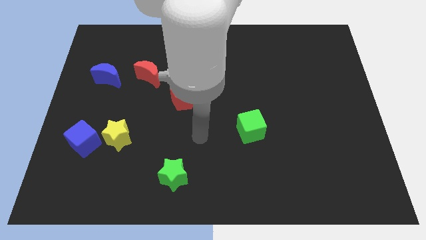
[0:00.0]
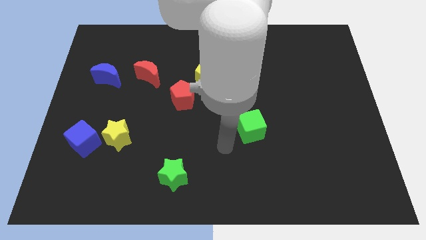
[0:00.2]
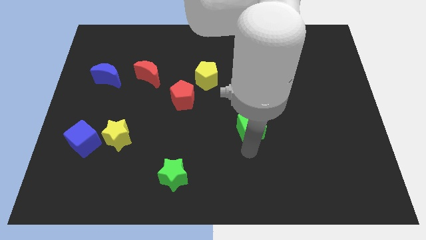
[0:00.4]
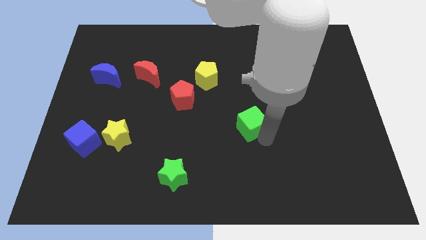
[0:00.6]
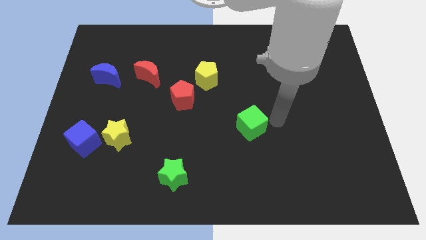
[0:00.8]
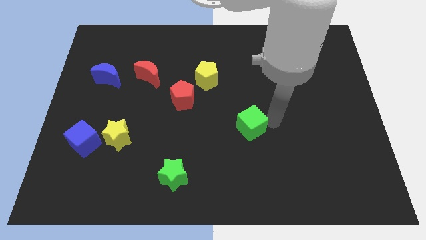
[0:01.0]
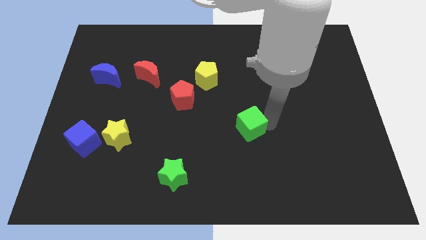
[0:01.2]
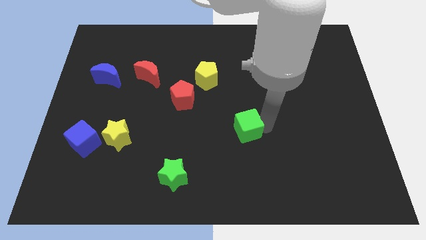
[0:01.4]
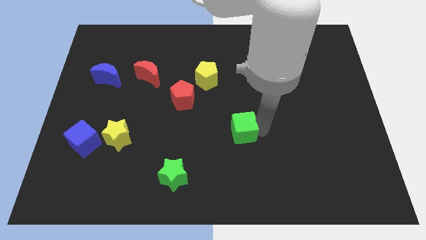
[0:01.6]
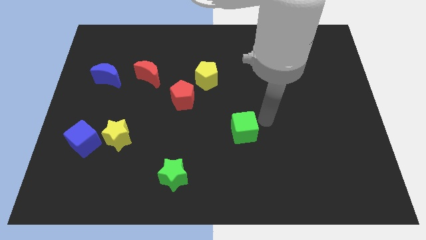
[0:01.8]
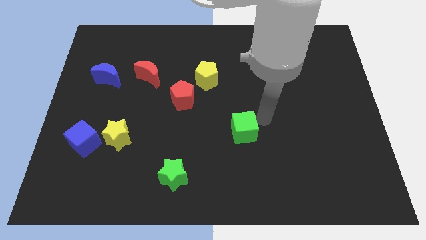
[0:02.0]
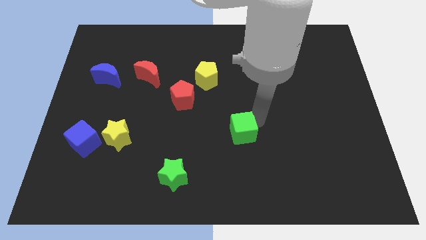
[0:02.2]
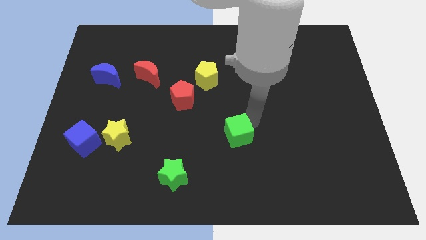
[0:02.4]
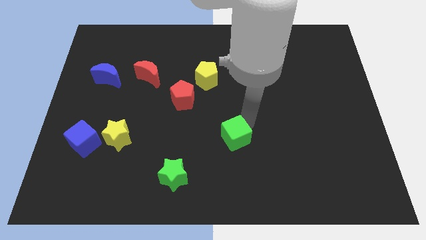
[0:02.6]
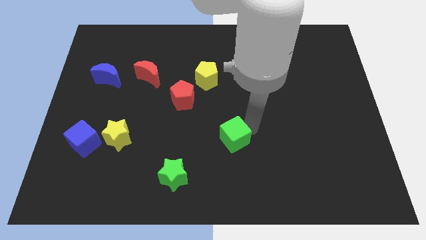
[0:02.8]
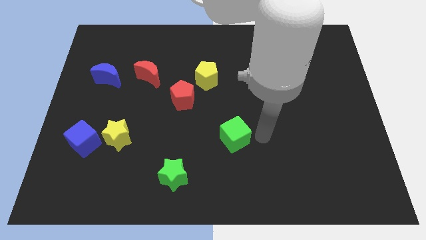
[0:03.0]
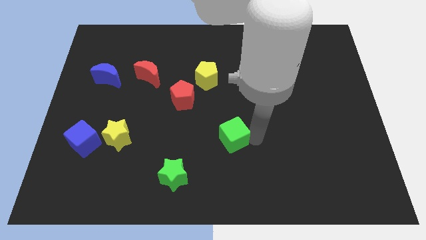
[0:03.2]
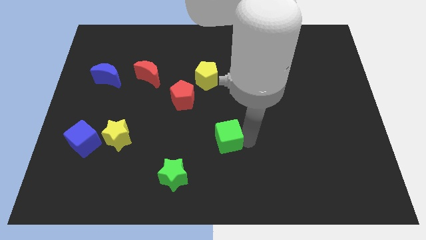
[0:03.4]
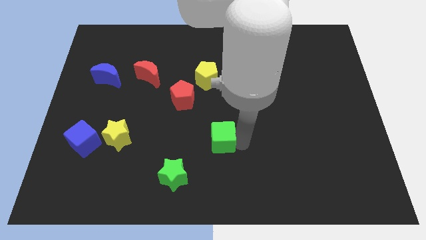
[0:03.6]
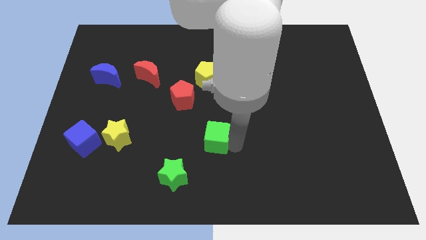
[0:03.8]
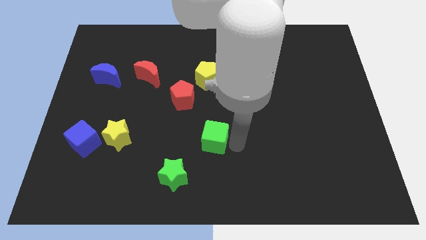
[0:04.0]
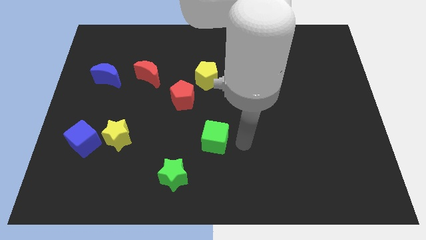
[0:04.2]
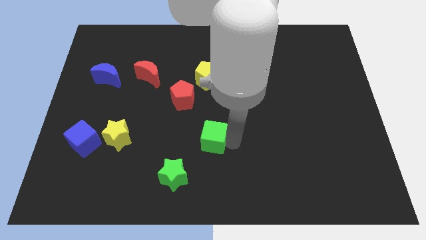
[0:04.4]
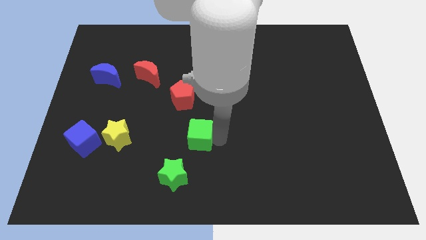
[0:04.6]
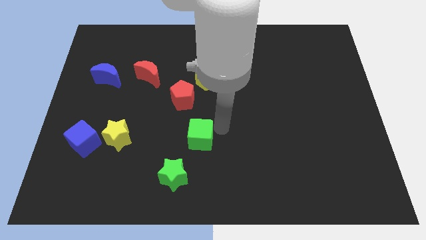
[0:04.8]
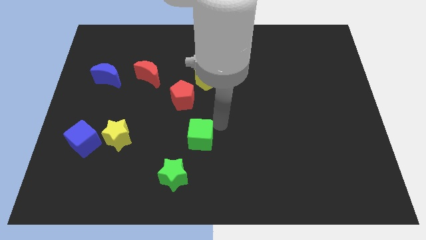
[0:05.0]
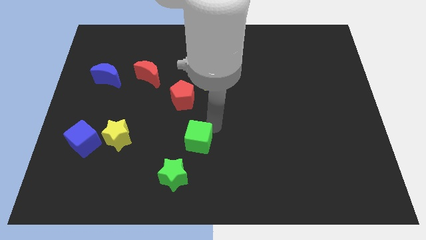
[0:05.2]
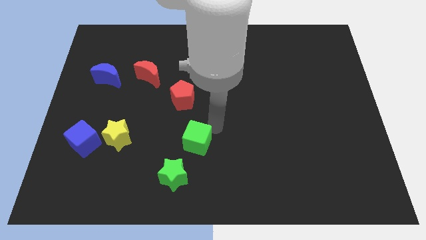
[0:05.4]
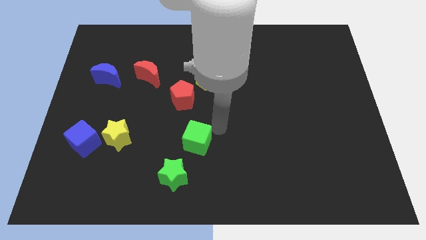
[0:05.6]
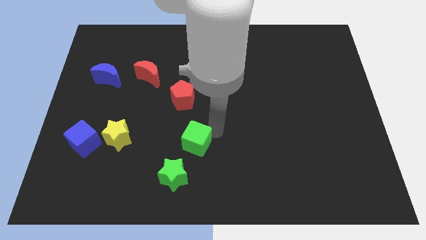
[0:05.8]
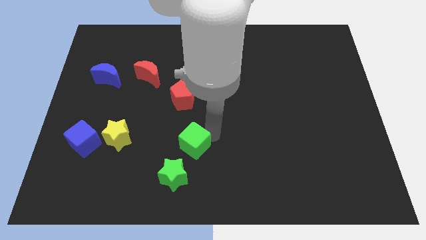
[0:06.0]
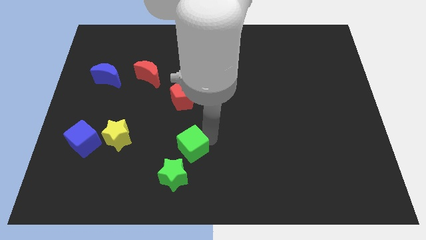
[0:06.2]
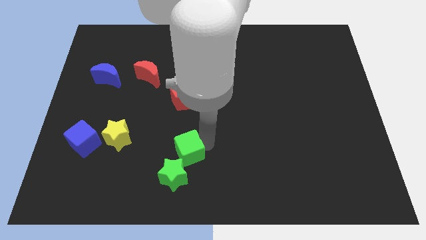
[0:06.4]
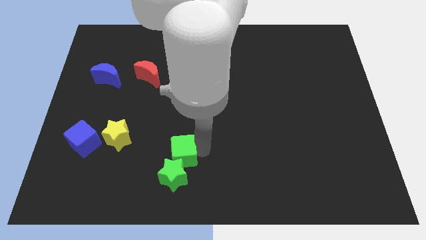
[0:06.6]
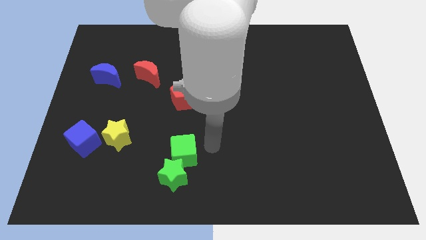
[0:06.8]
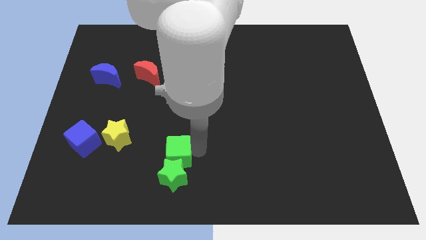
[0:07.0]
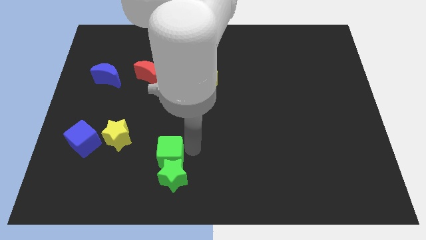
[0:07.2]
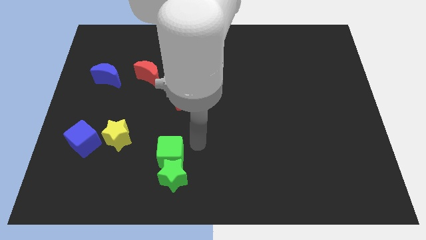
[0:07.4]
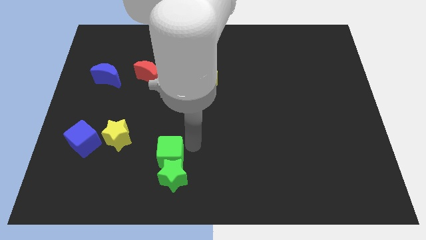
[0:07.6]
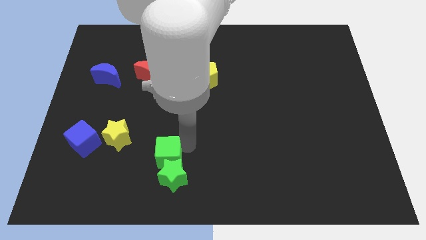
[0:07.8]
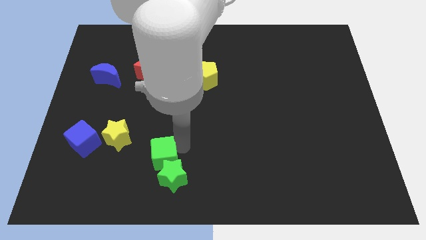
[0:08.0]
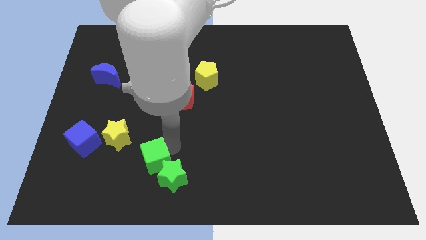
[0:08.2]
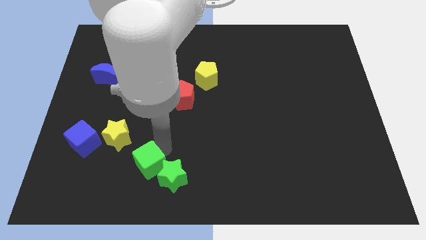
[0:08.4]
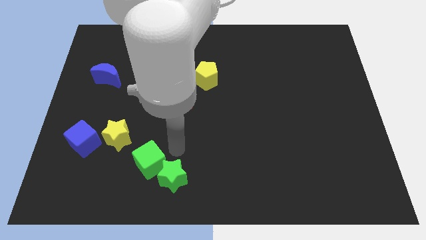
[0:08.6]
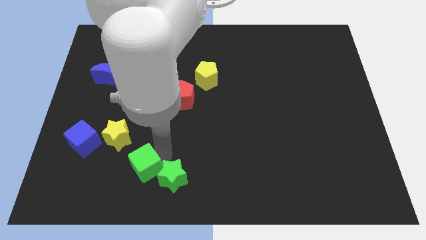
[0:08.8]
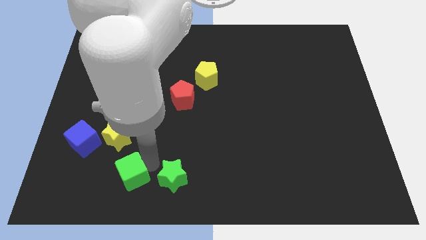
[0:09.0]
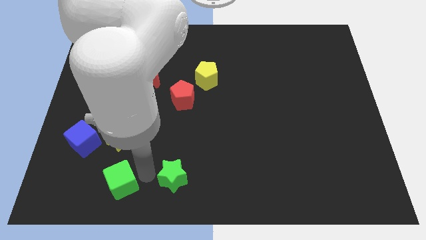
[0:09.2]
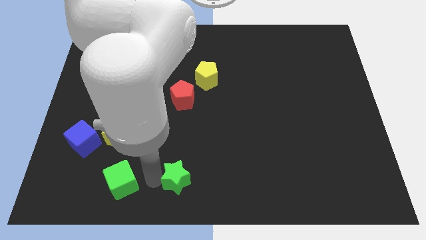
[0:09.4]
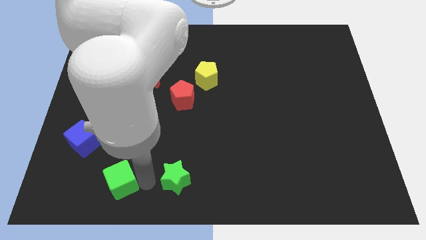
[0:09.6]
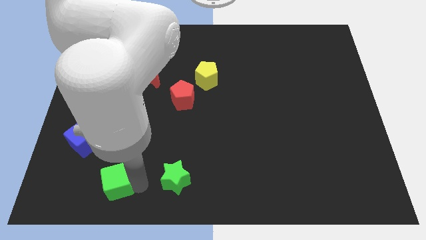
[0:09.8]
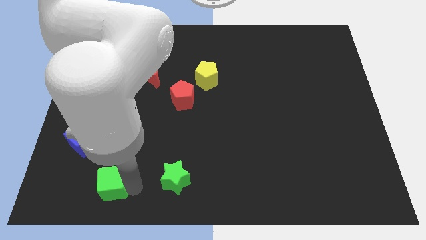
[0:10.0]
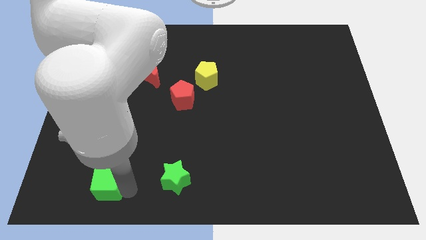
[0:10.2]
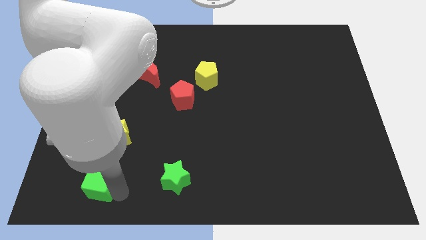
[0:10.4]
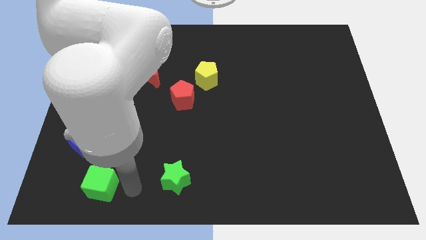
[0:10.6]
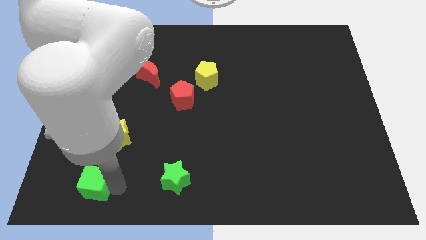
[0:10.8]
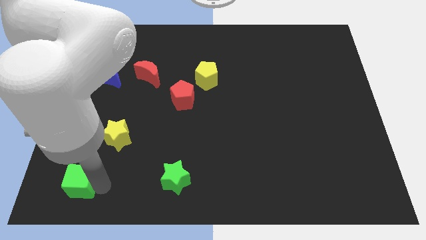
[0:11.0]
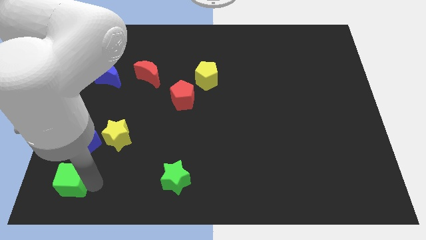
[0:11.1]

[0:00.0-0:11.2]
slide the green cube to the lower left corner

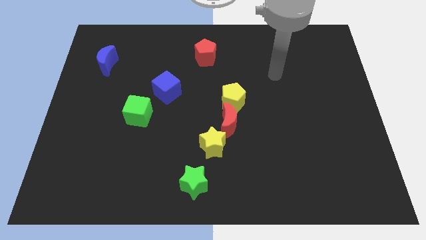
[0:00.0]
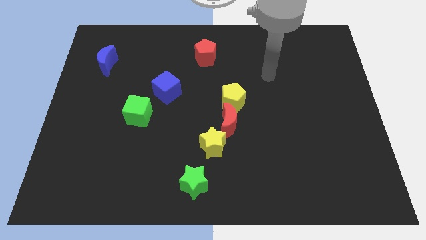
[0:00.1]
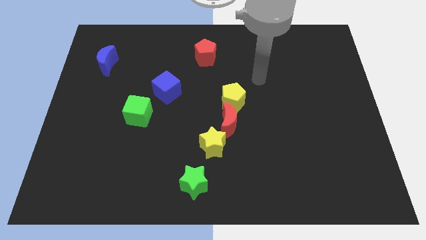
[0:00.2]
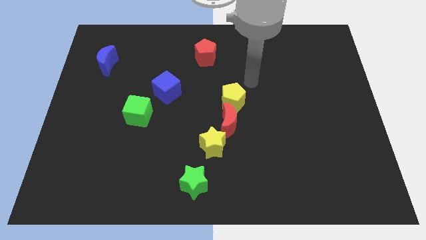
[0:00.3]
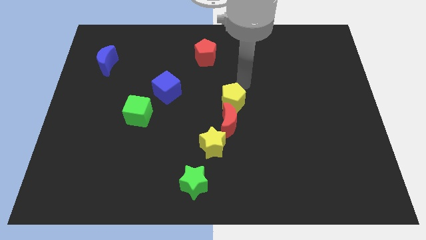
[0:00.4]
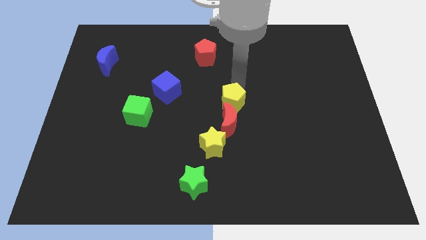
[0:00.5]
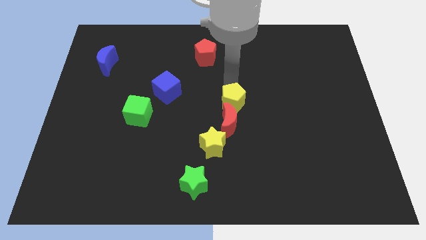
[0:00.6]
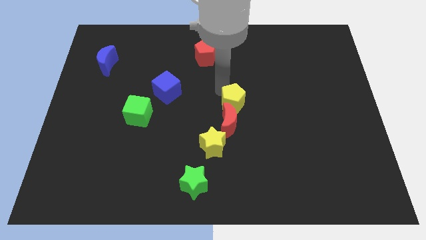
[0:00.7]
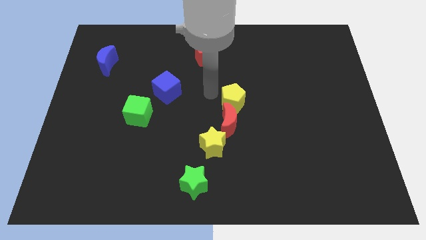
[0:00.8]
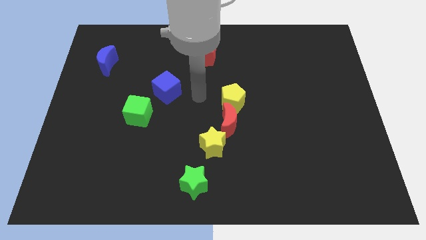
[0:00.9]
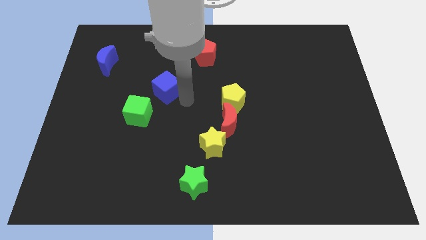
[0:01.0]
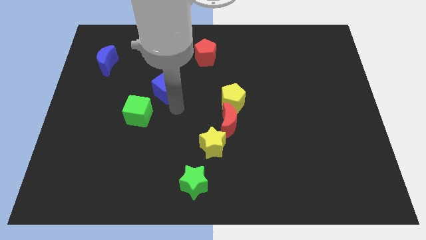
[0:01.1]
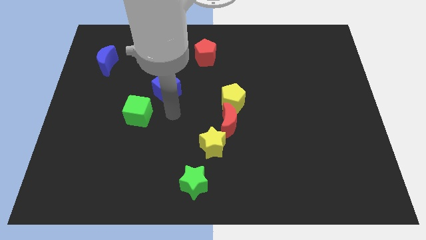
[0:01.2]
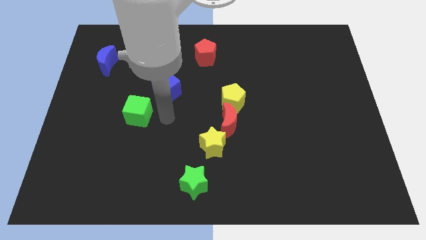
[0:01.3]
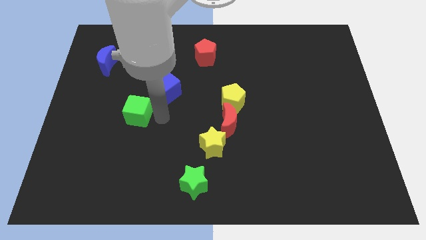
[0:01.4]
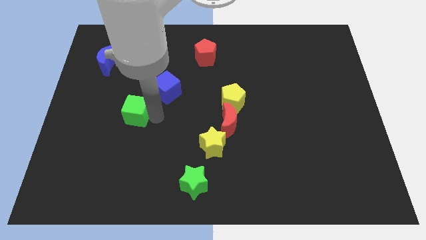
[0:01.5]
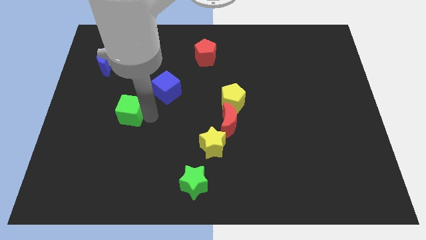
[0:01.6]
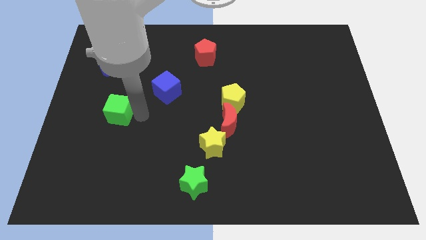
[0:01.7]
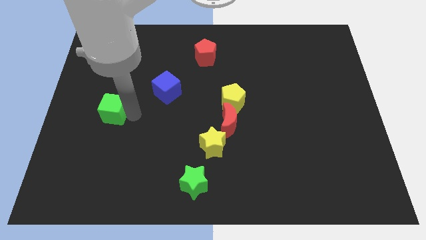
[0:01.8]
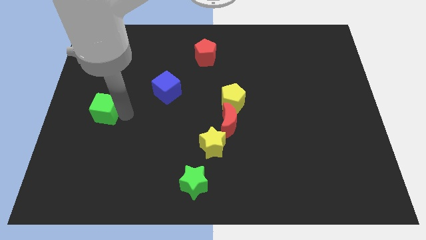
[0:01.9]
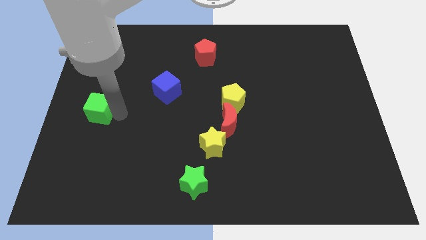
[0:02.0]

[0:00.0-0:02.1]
push the green cube to the left side
